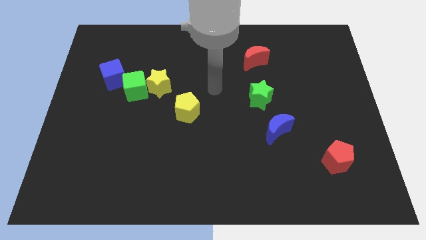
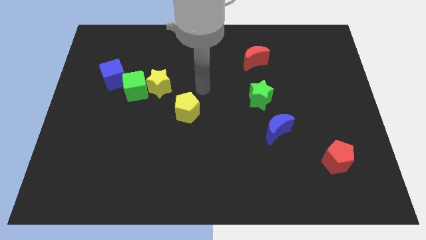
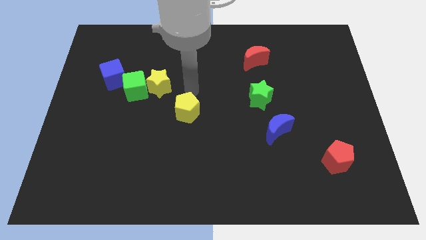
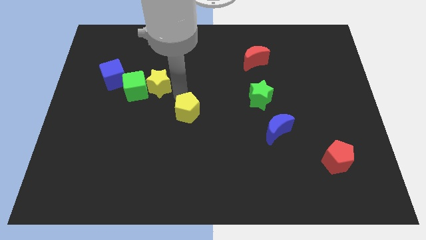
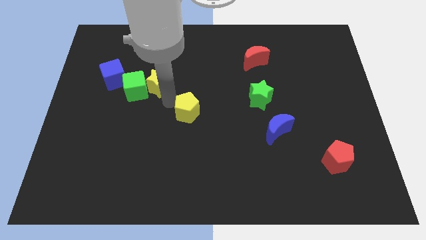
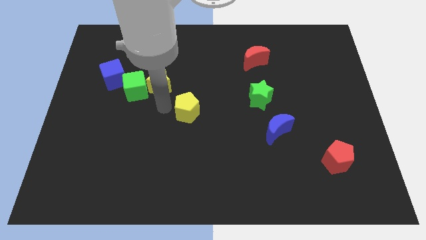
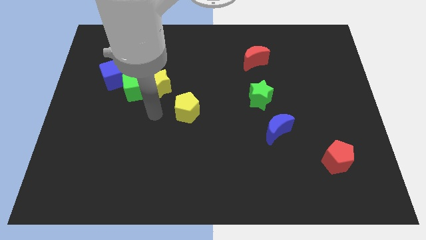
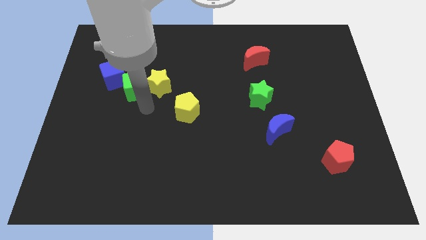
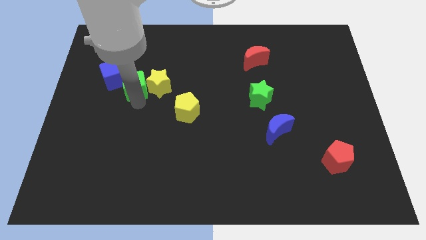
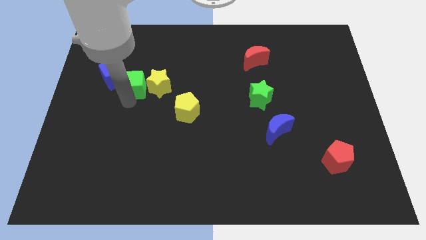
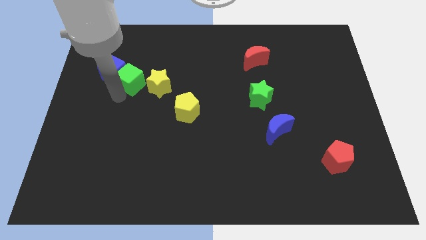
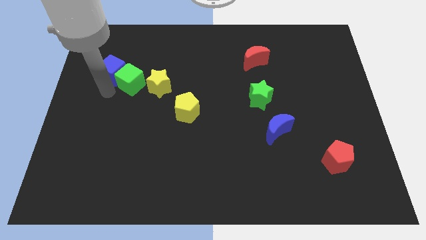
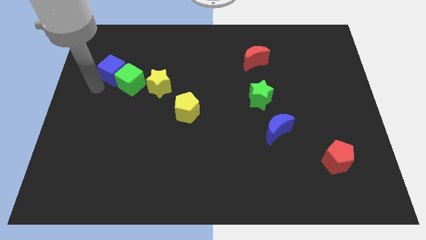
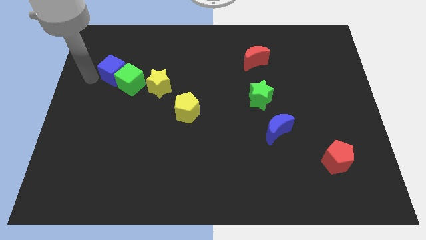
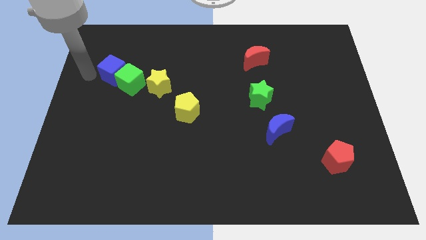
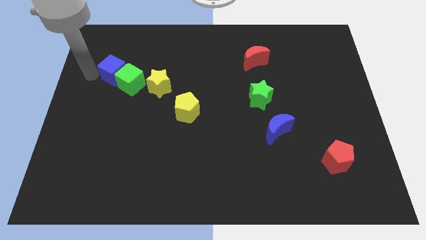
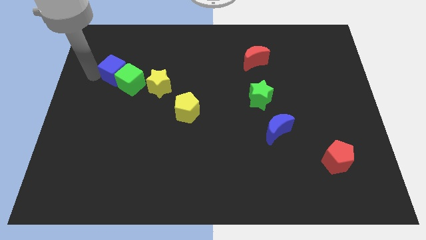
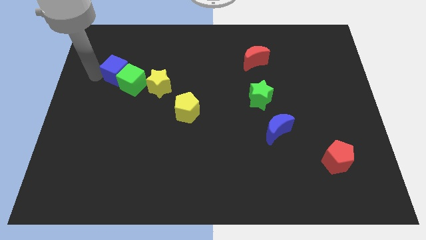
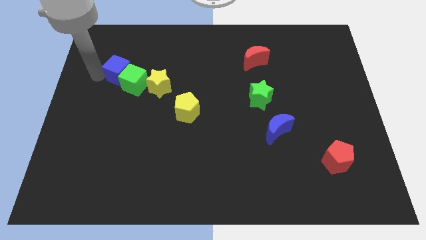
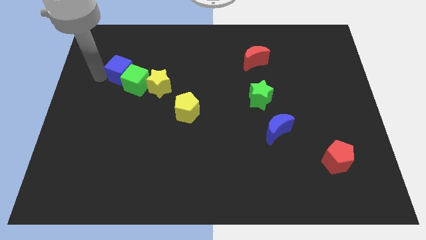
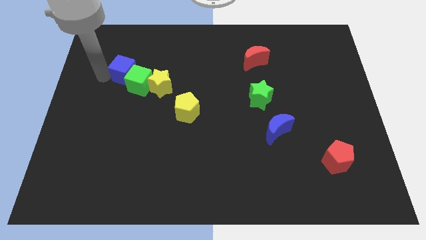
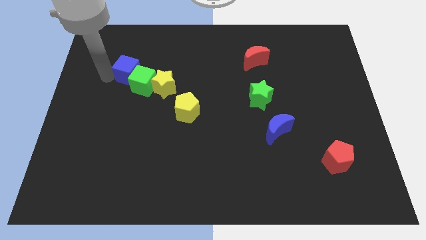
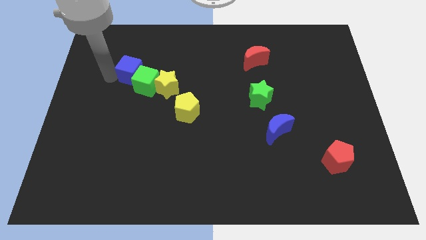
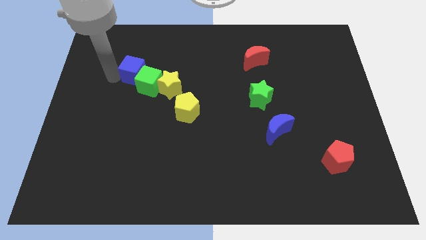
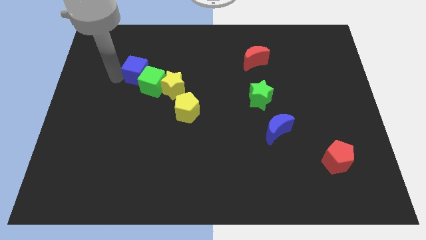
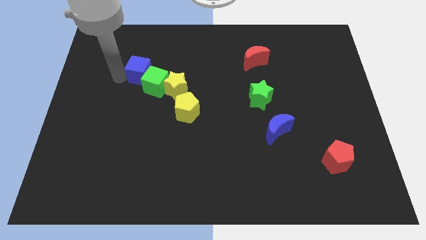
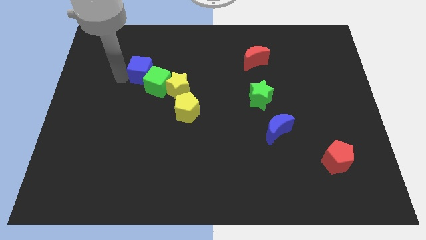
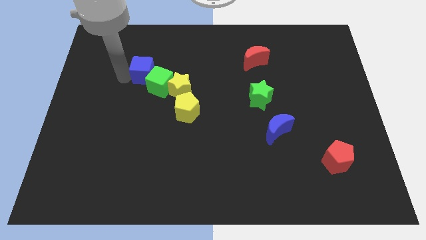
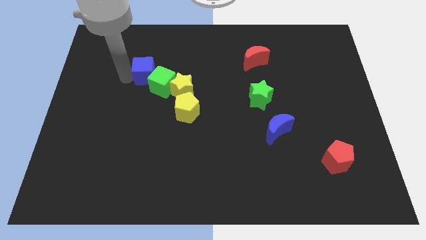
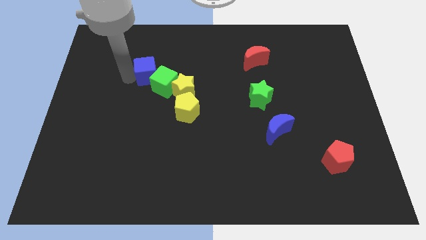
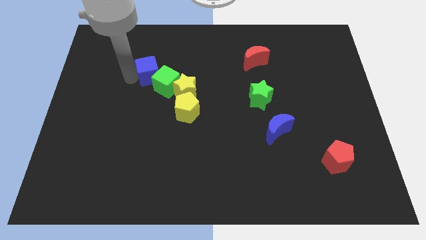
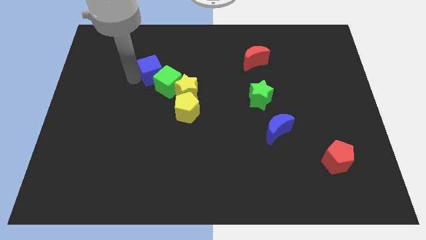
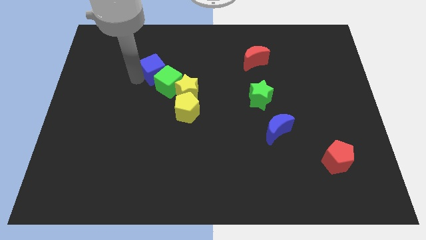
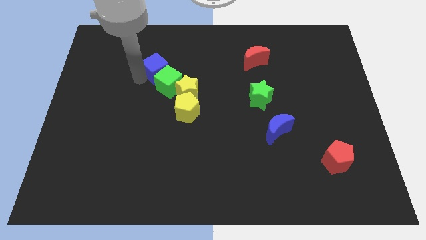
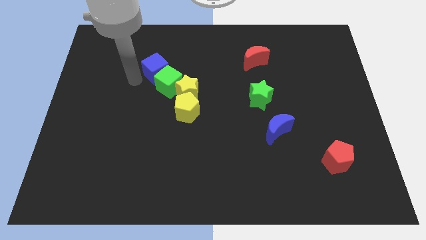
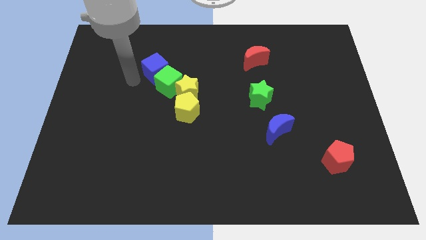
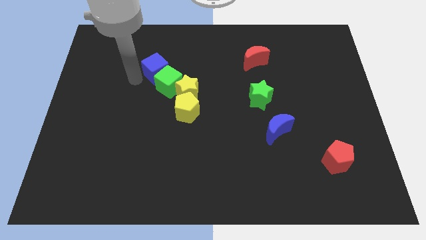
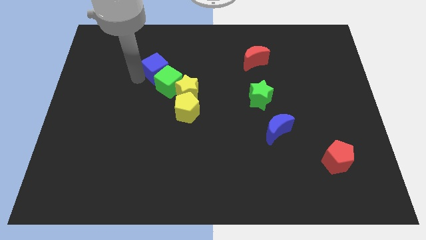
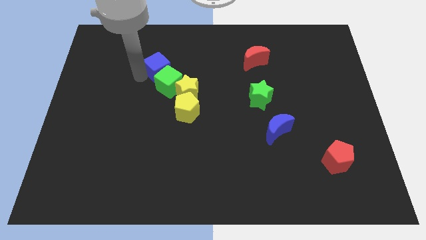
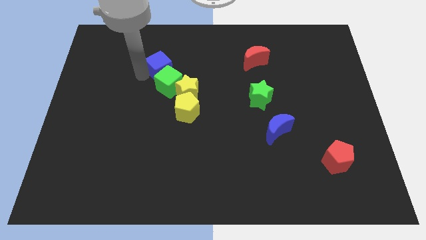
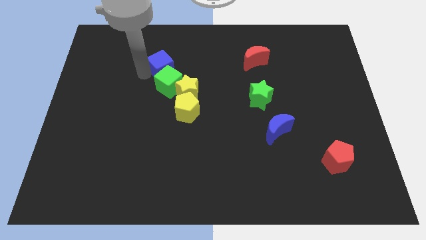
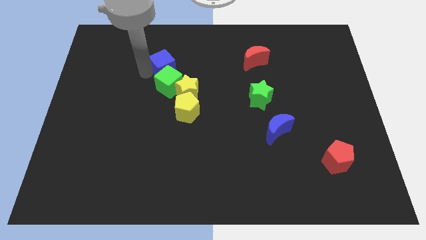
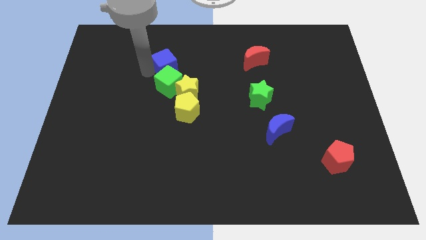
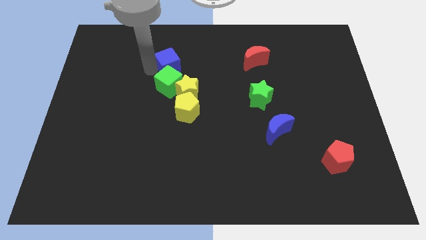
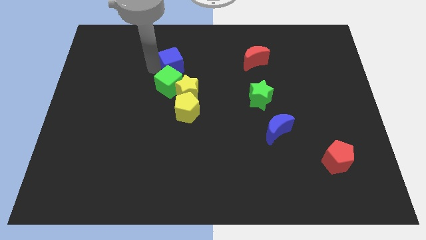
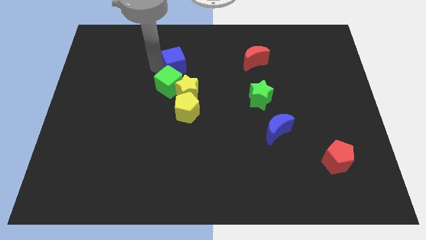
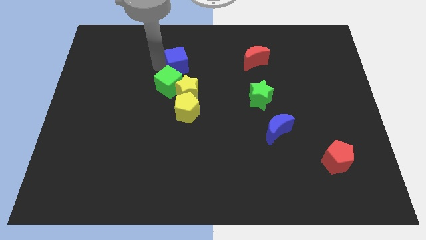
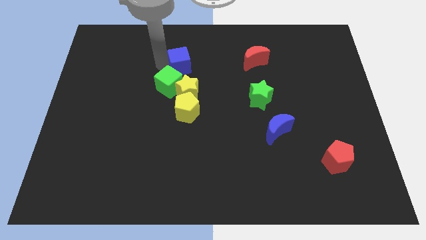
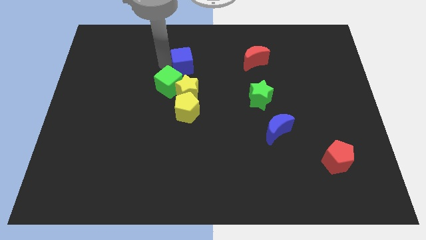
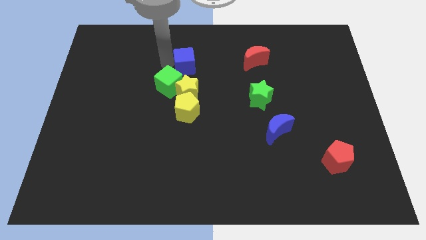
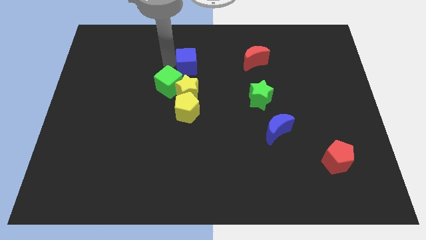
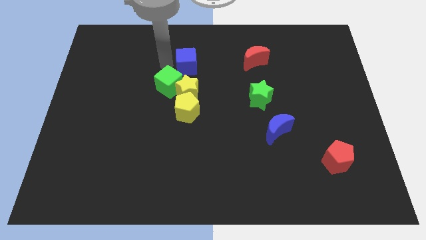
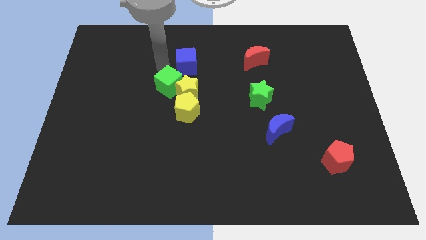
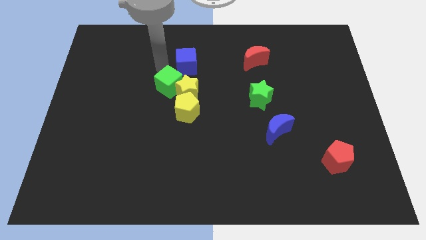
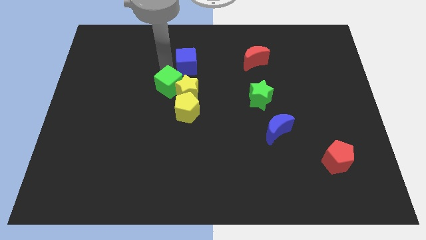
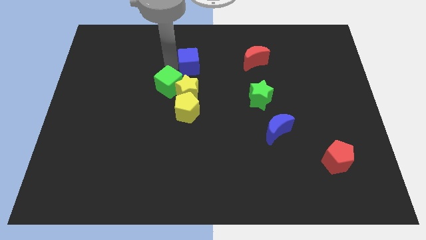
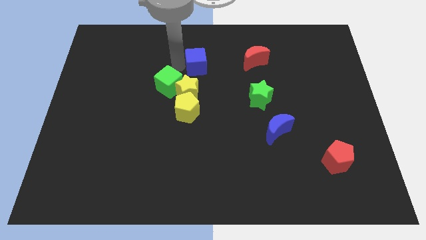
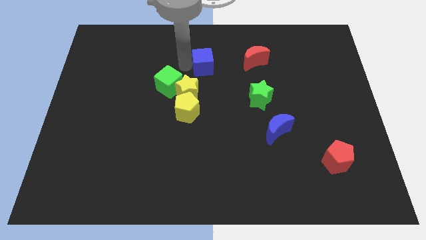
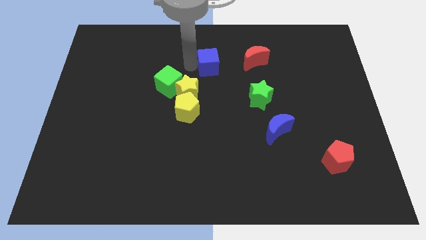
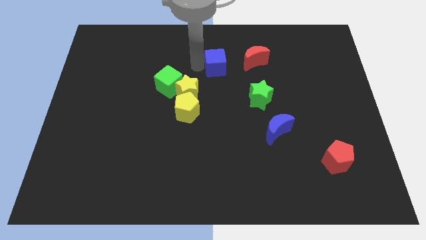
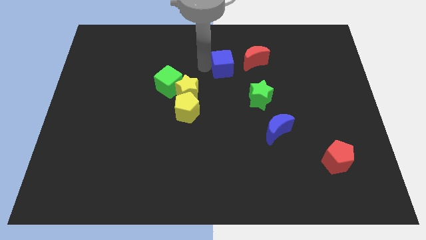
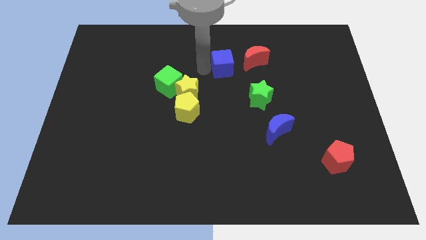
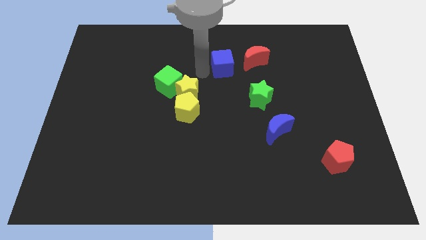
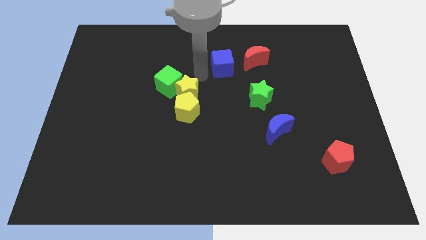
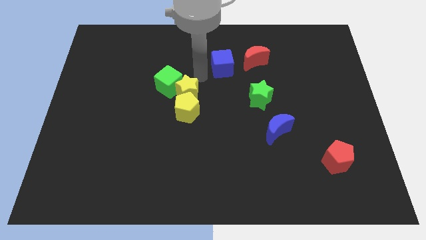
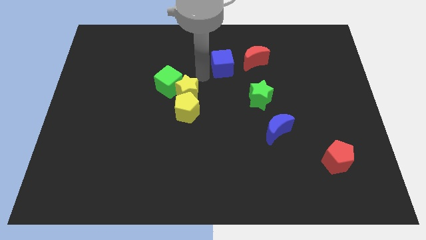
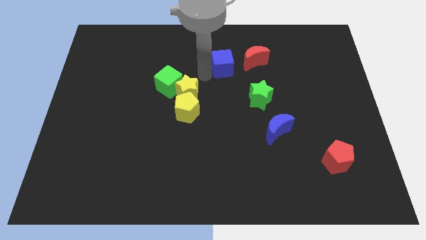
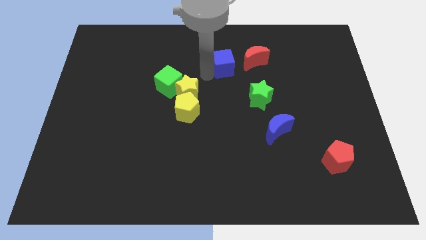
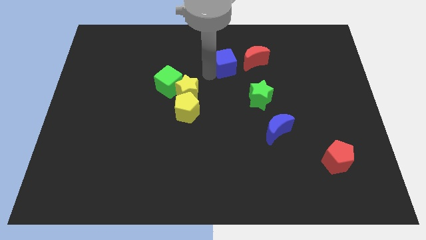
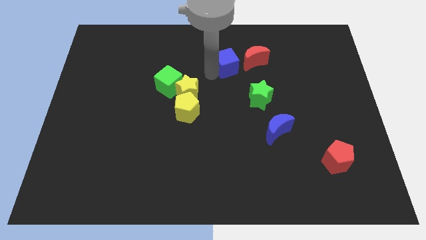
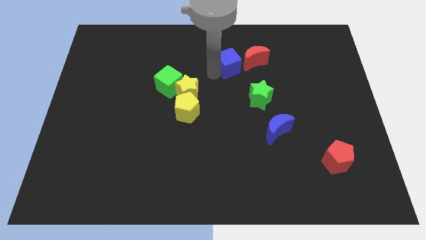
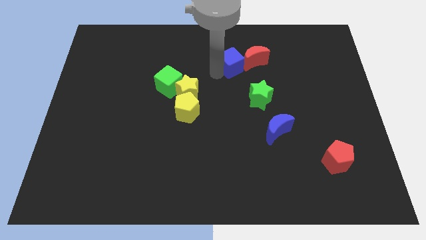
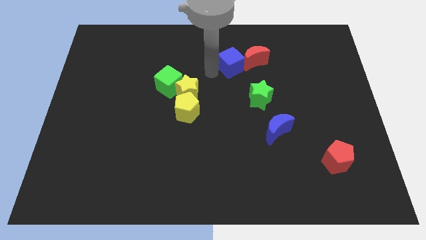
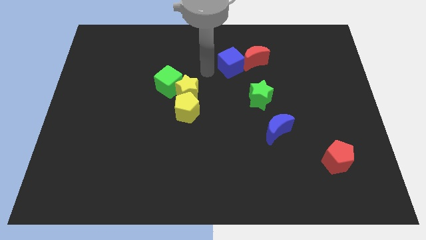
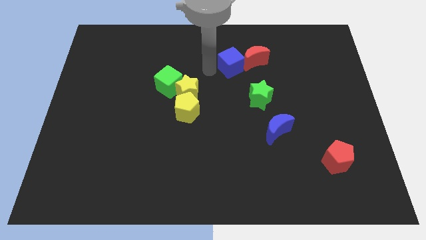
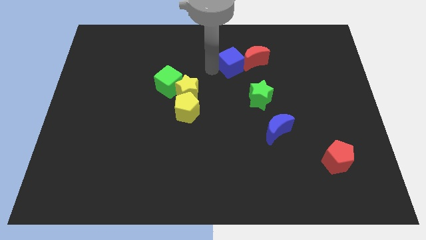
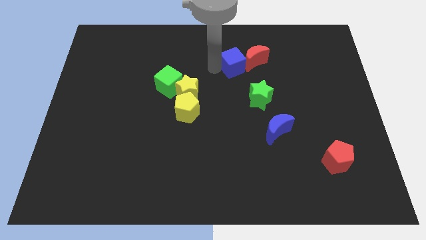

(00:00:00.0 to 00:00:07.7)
put the blue cube towards the red moon
